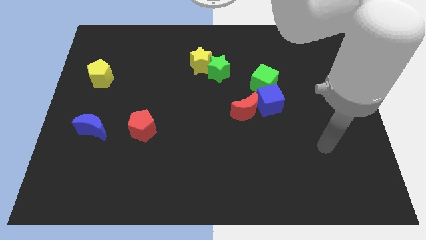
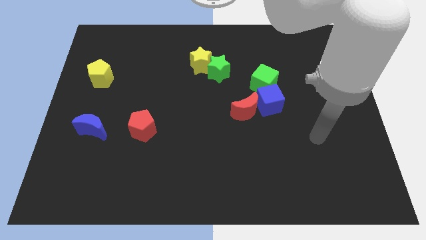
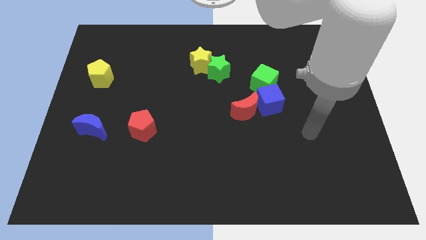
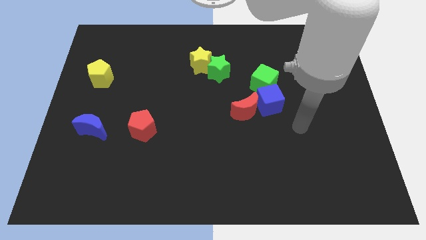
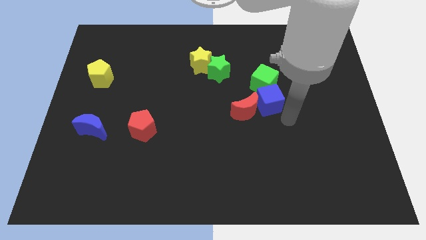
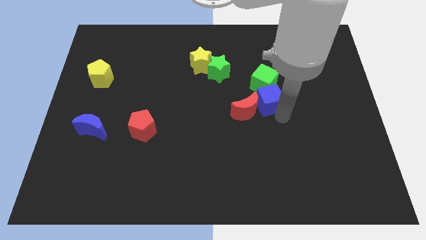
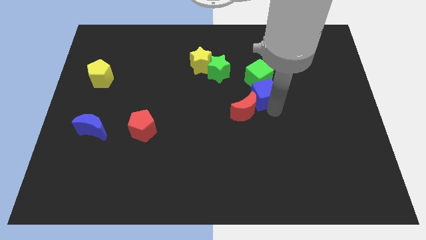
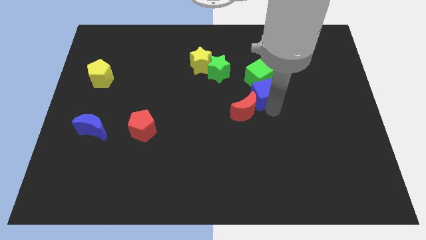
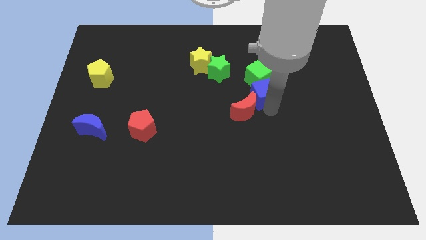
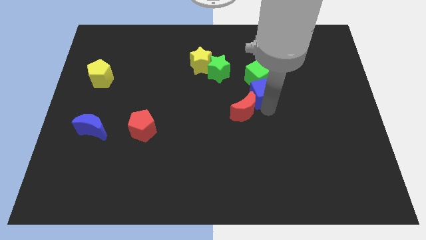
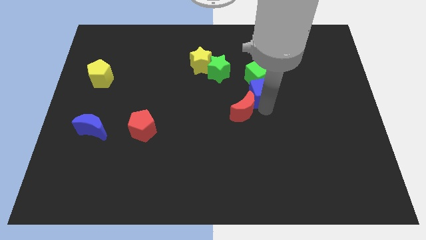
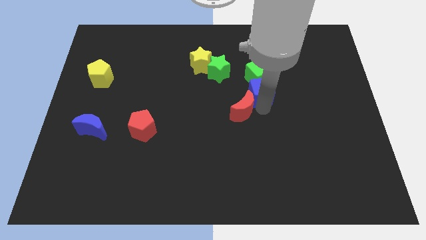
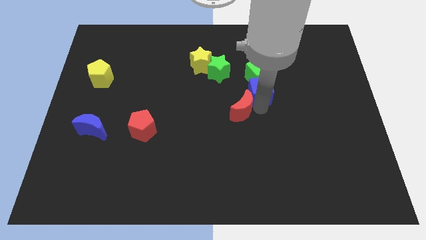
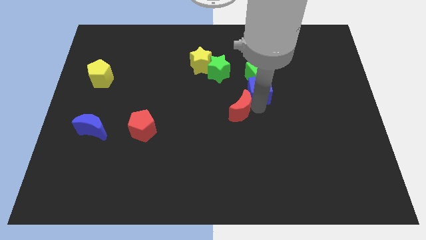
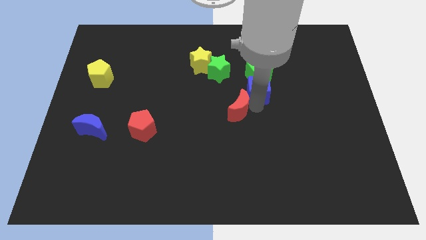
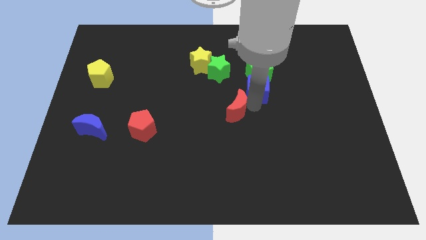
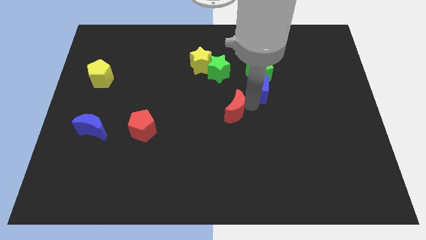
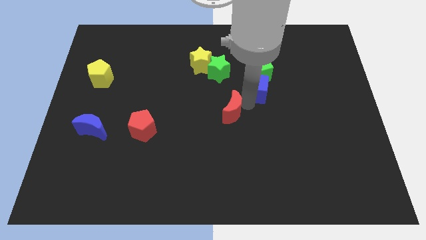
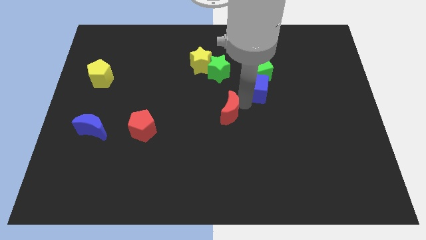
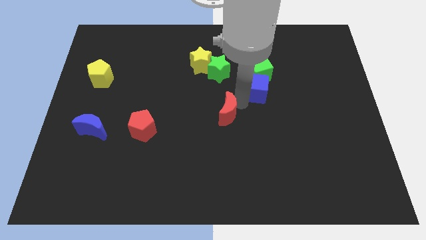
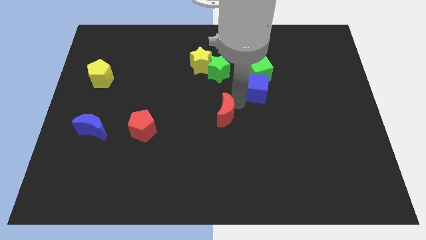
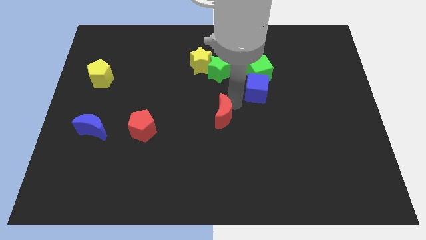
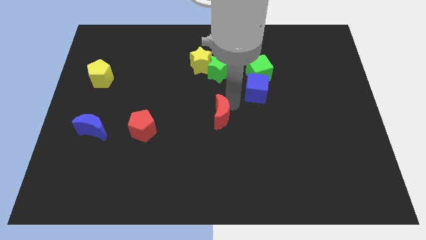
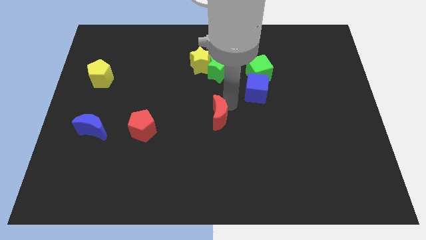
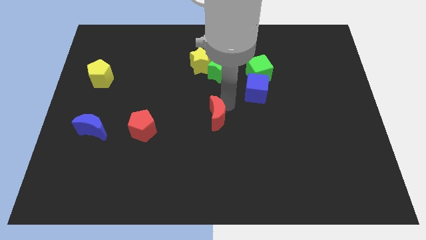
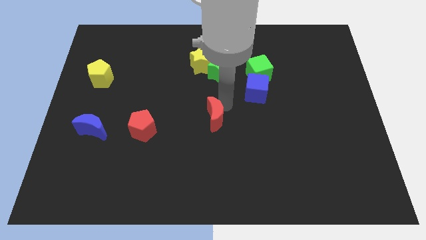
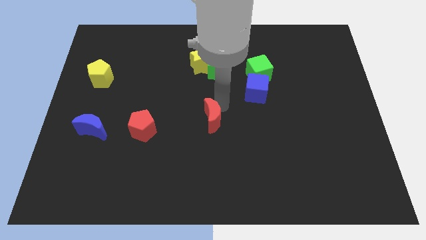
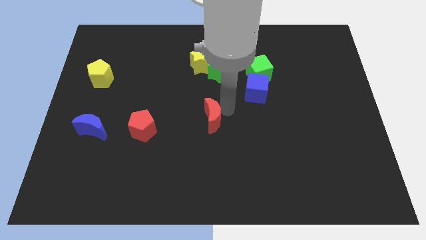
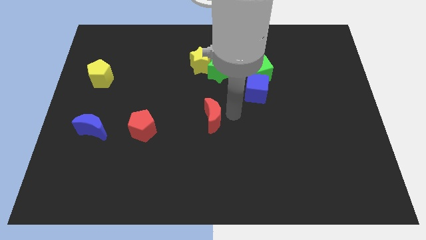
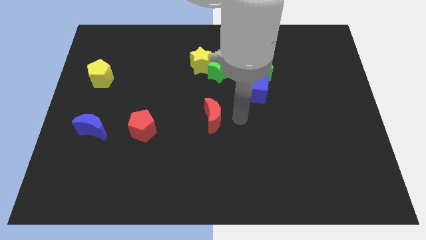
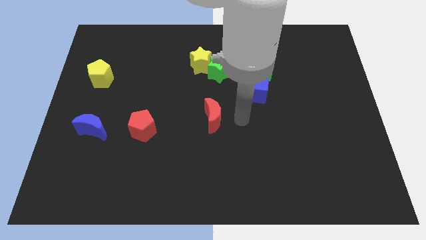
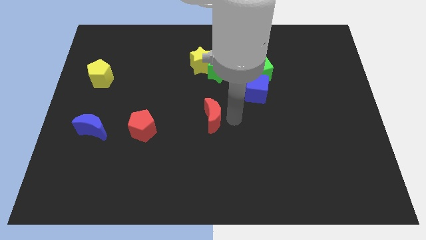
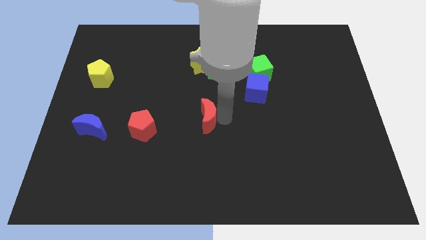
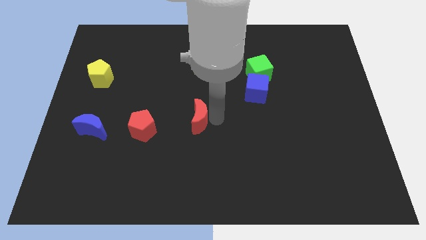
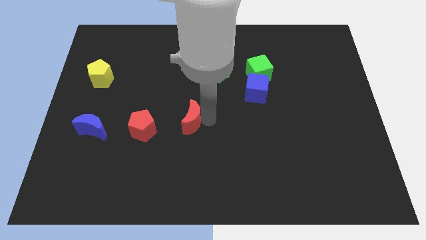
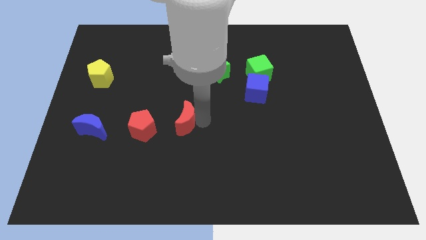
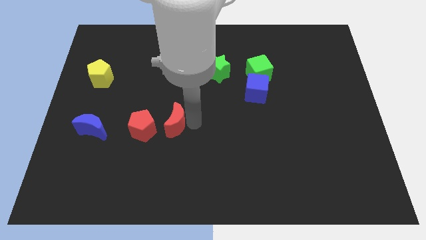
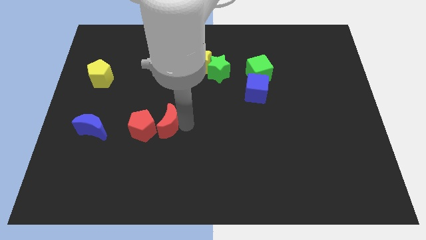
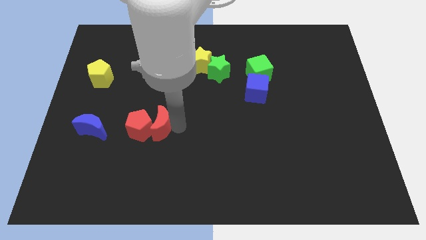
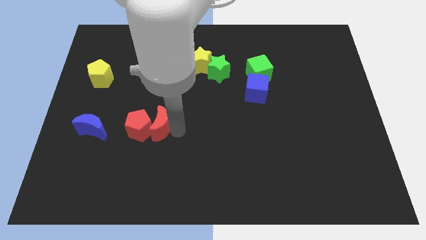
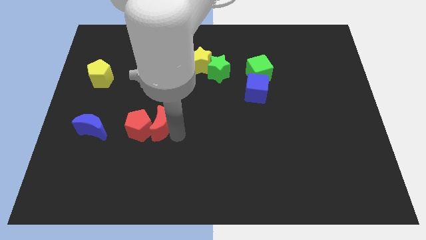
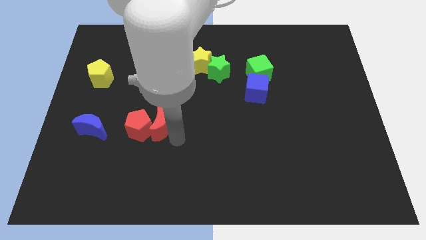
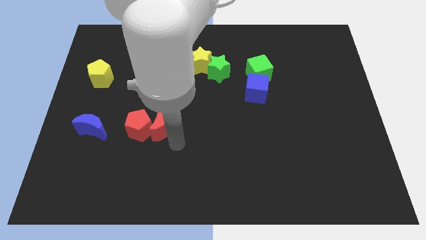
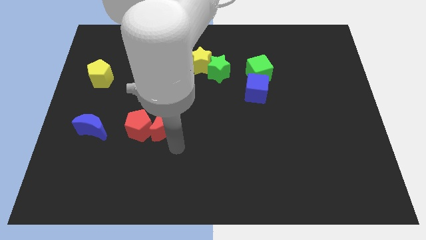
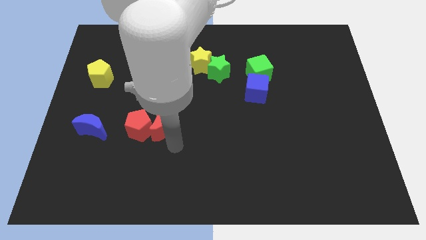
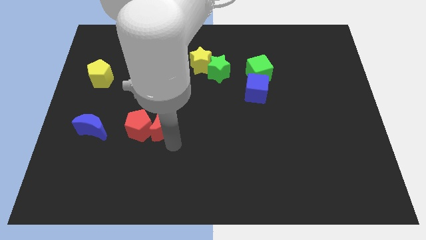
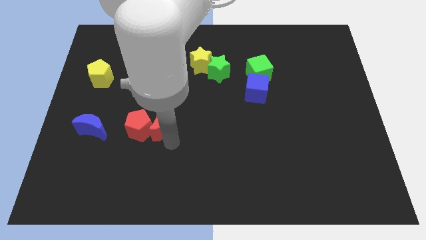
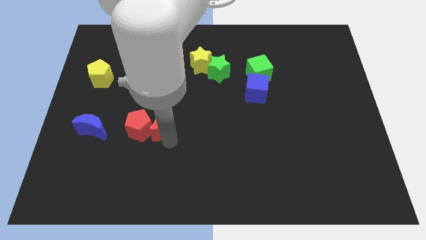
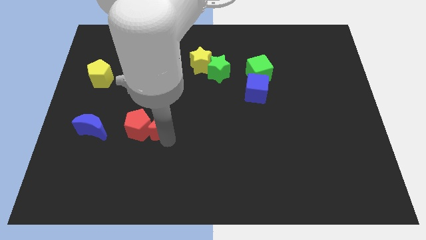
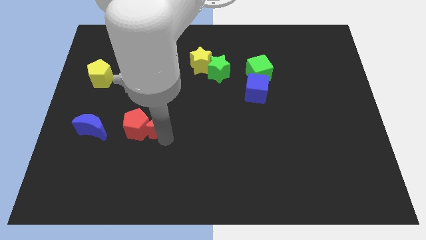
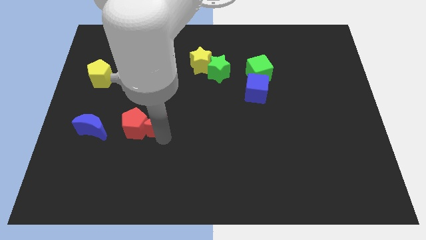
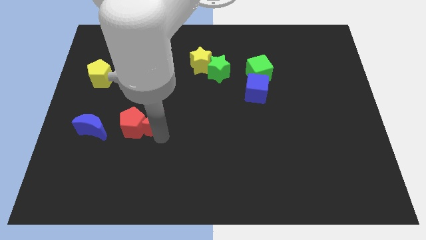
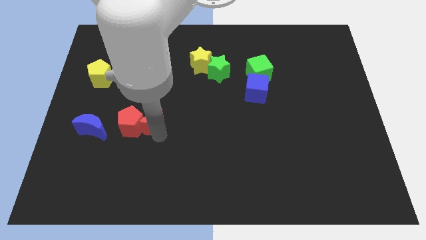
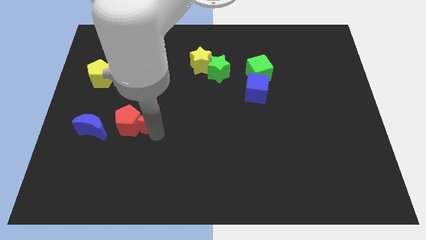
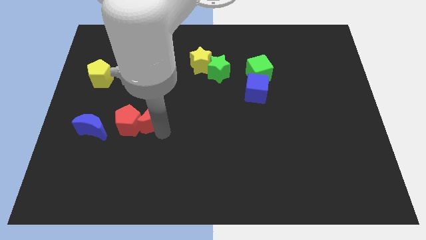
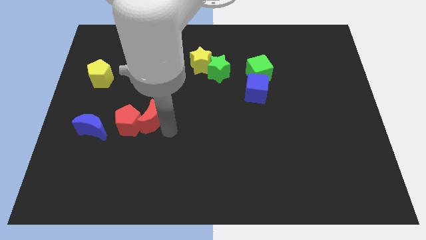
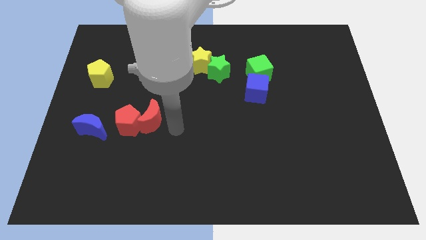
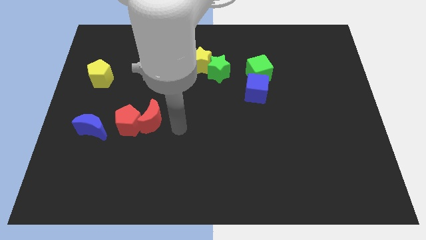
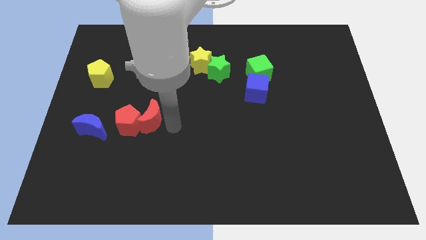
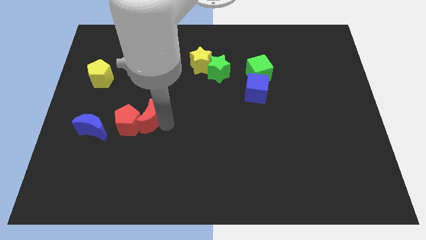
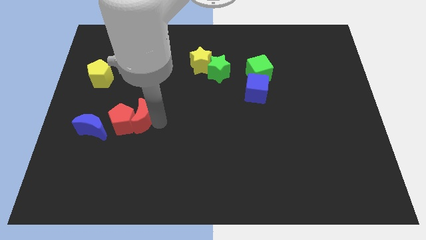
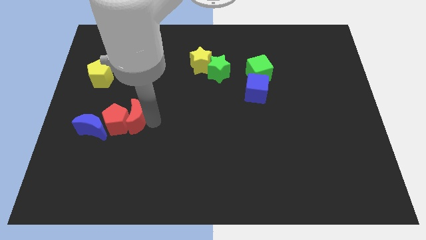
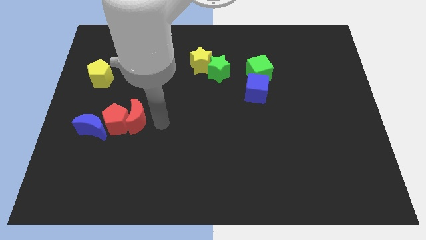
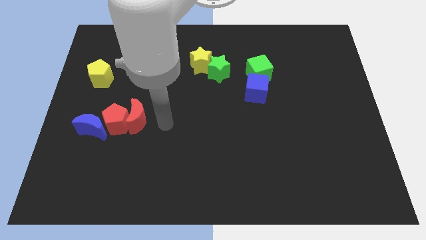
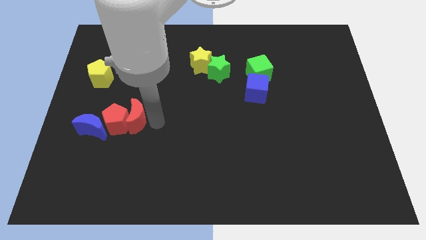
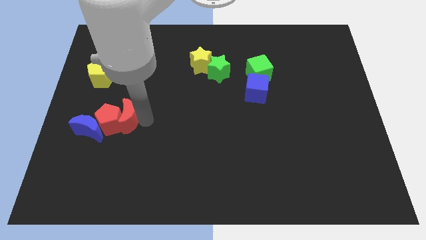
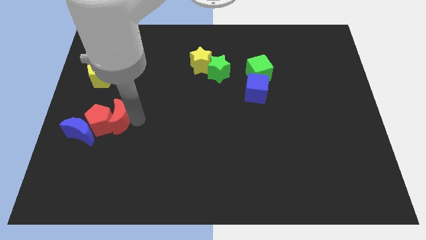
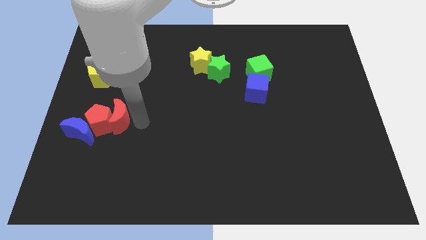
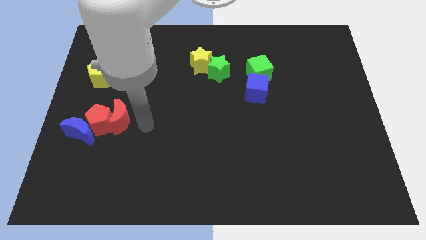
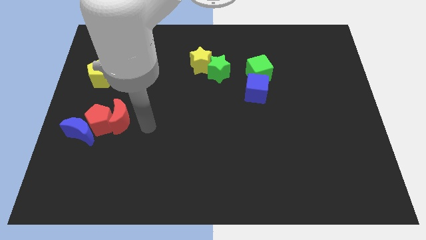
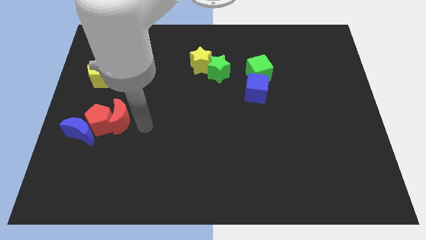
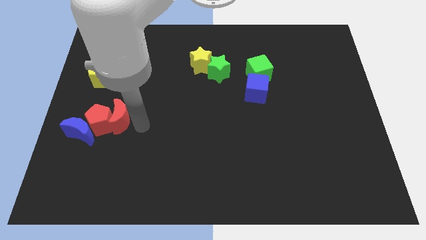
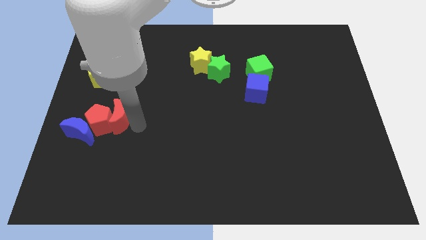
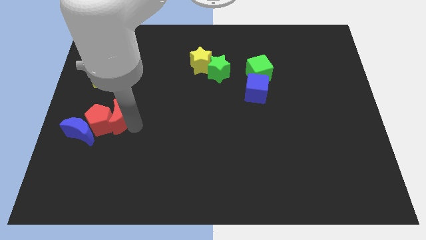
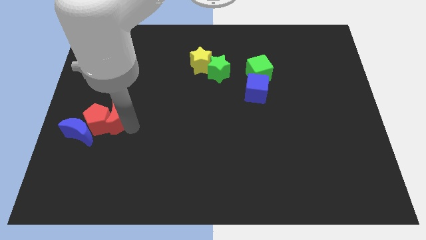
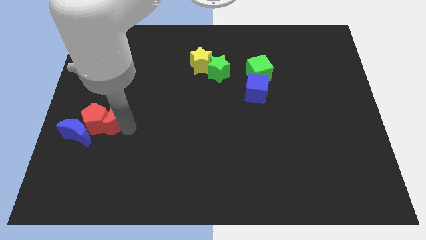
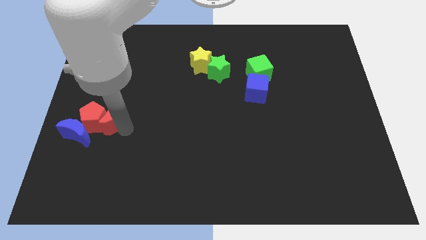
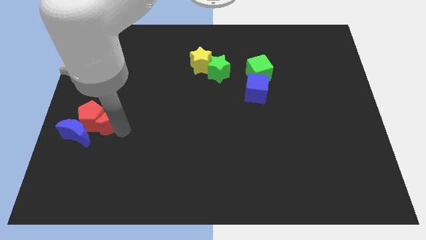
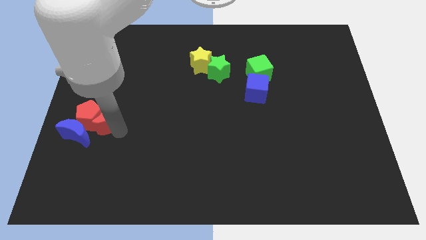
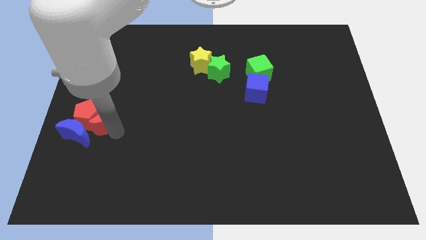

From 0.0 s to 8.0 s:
slide the red moon below the yellow pentagon
